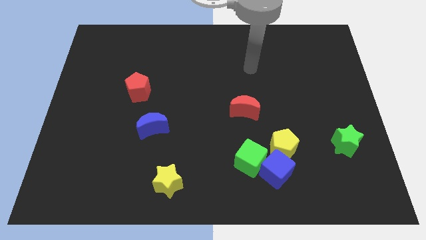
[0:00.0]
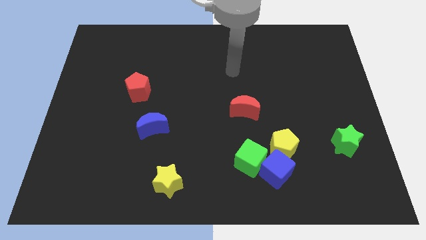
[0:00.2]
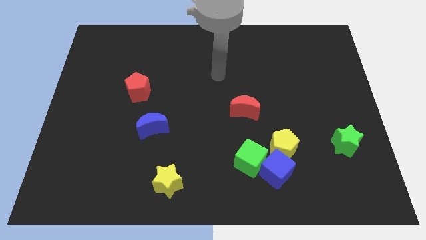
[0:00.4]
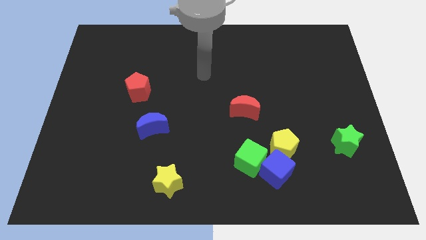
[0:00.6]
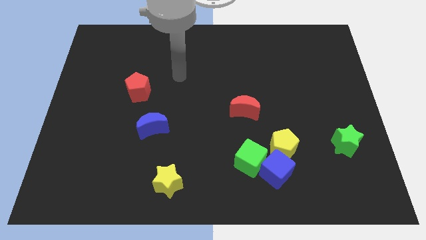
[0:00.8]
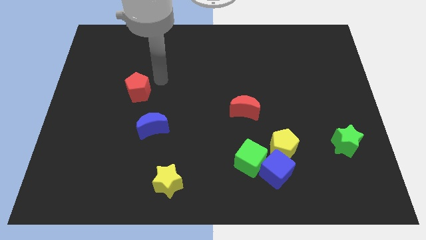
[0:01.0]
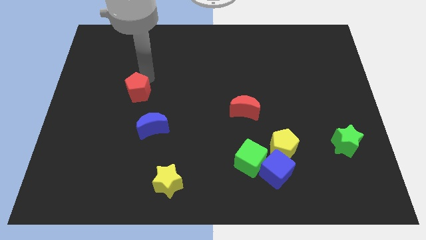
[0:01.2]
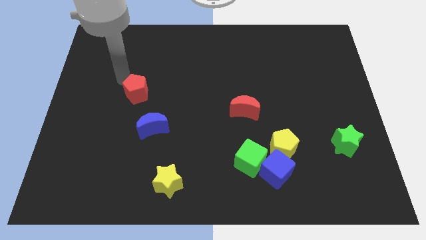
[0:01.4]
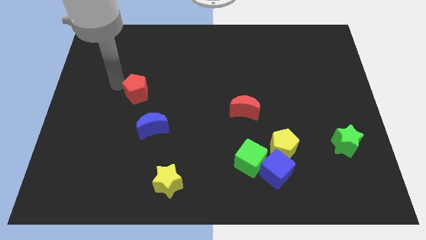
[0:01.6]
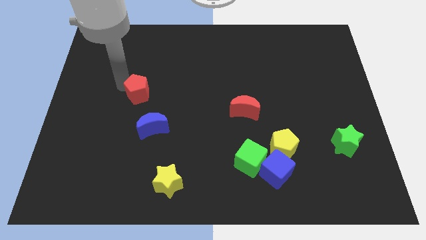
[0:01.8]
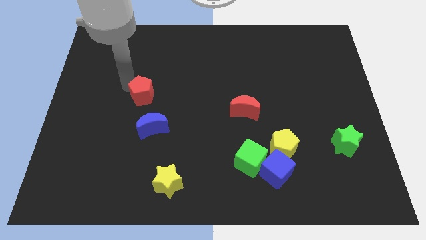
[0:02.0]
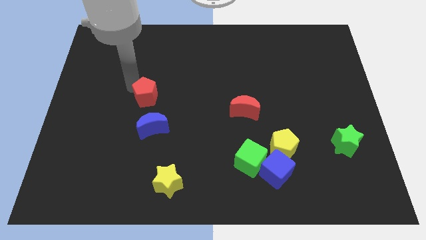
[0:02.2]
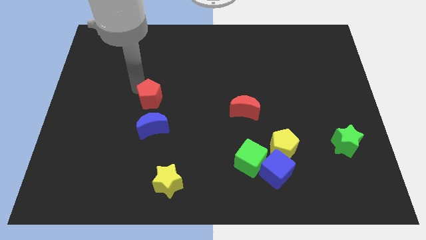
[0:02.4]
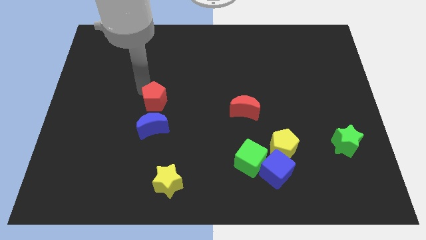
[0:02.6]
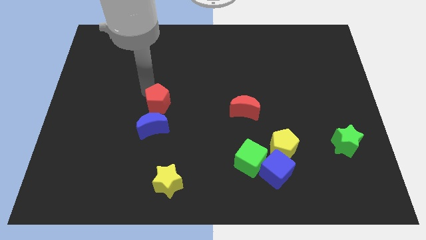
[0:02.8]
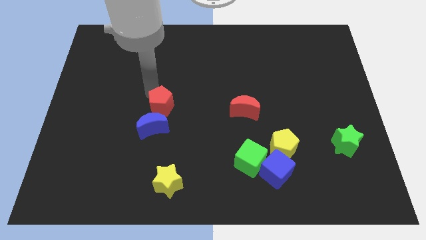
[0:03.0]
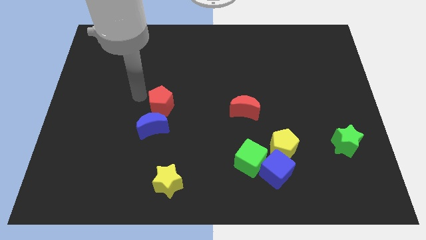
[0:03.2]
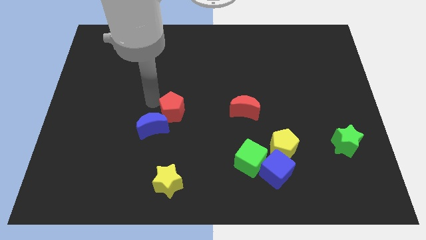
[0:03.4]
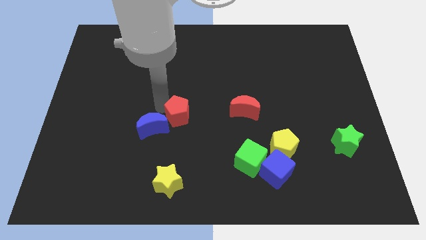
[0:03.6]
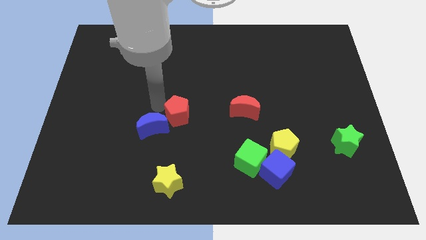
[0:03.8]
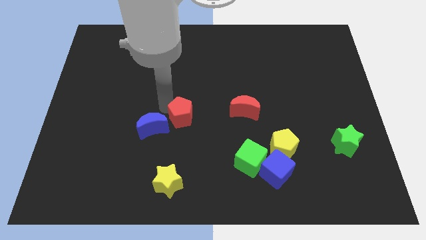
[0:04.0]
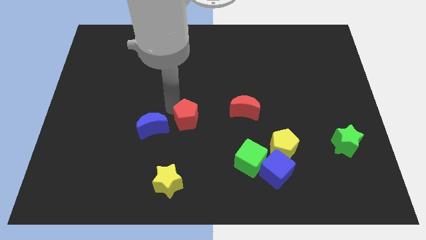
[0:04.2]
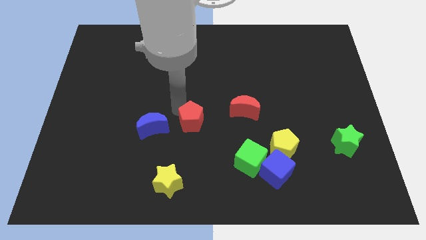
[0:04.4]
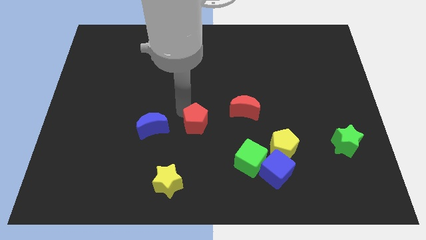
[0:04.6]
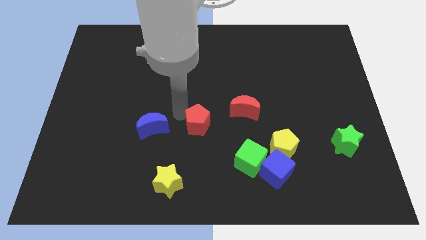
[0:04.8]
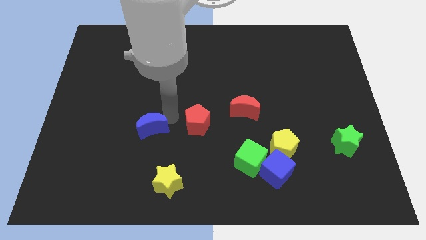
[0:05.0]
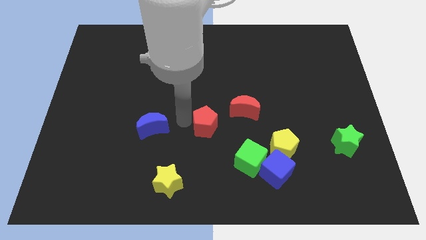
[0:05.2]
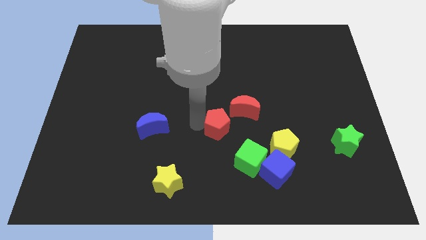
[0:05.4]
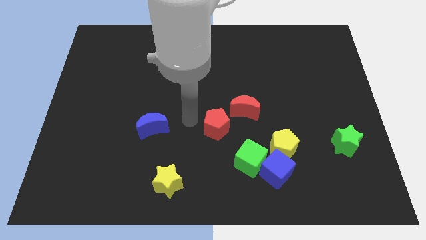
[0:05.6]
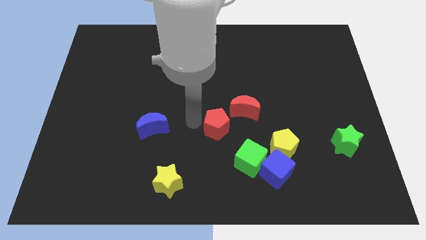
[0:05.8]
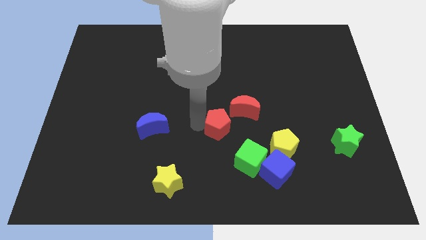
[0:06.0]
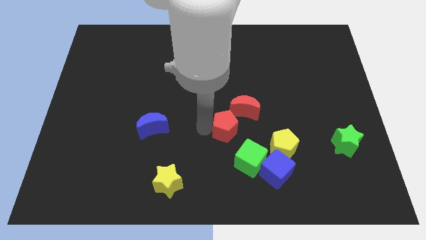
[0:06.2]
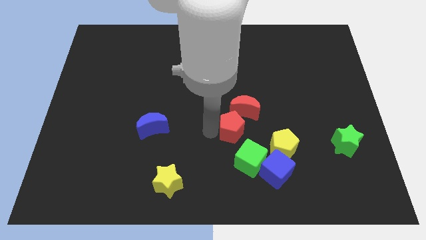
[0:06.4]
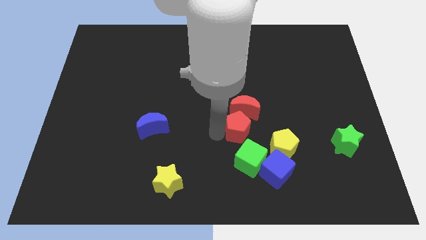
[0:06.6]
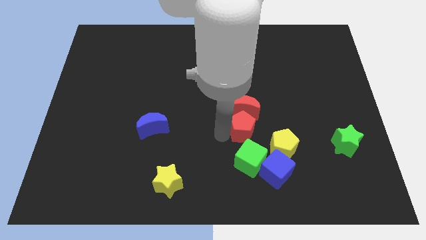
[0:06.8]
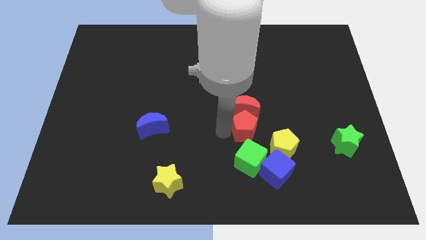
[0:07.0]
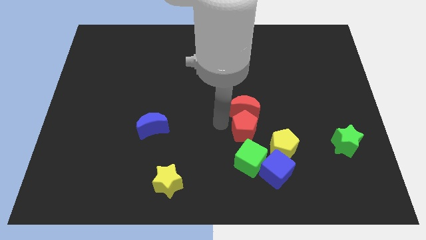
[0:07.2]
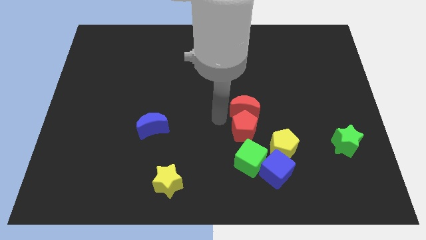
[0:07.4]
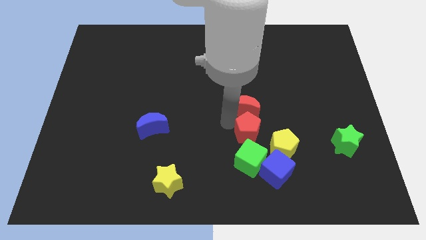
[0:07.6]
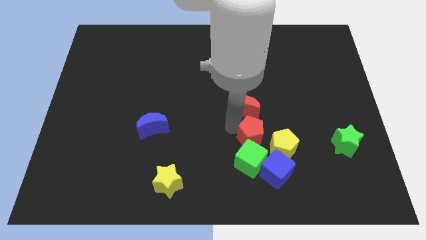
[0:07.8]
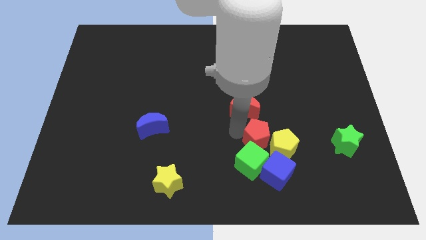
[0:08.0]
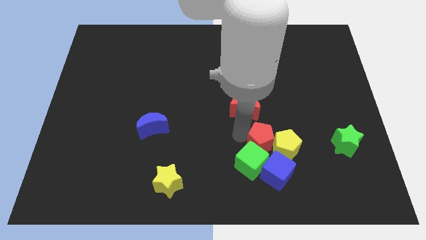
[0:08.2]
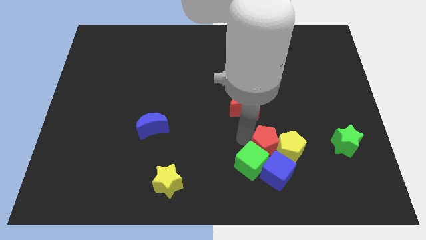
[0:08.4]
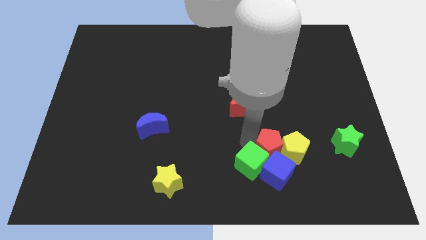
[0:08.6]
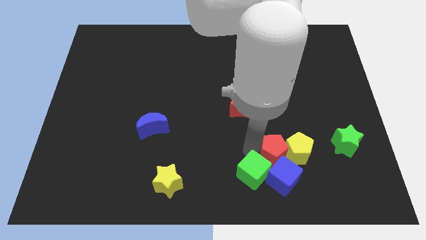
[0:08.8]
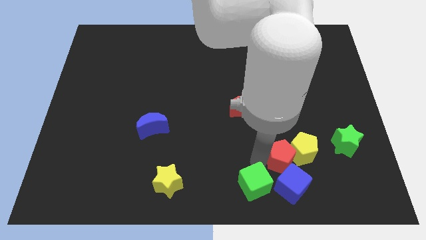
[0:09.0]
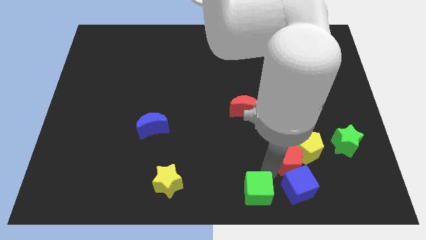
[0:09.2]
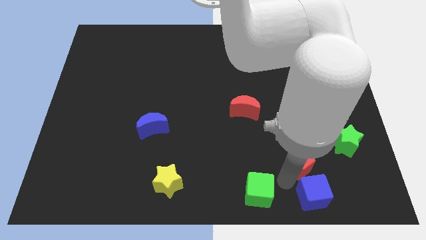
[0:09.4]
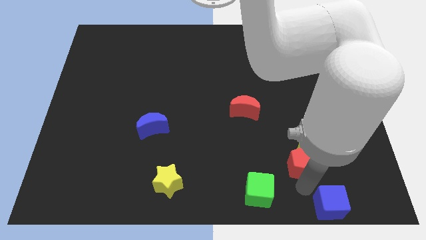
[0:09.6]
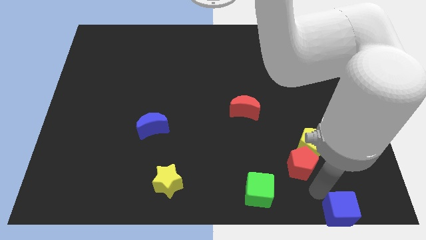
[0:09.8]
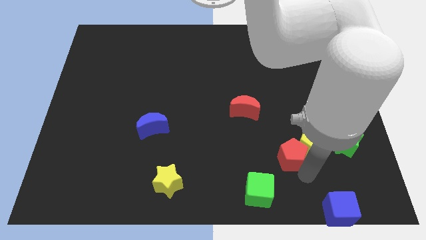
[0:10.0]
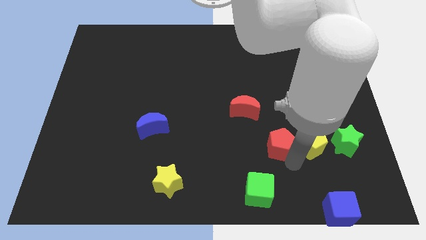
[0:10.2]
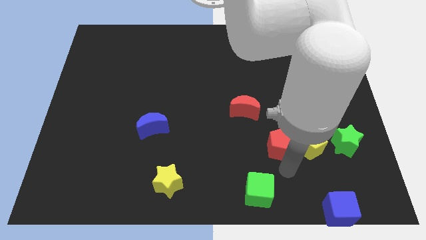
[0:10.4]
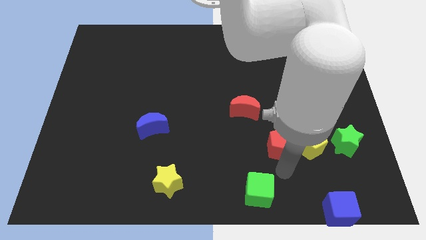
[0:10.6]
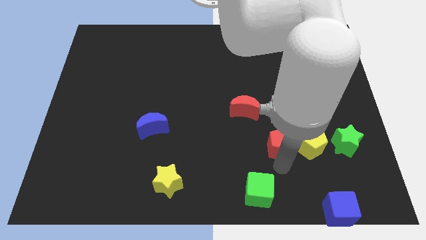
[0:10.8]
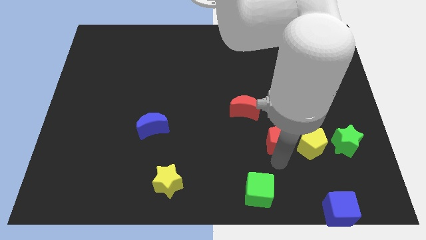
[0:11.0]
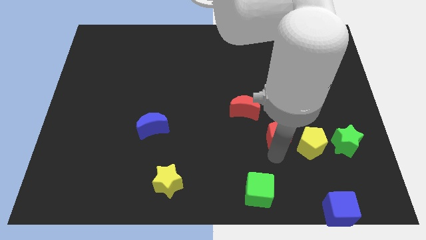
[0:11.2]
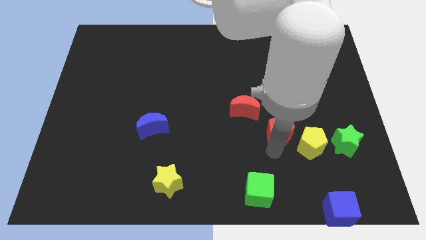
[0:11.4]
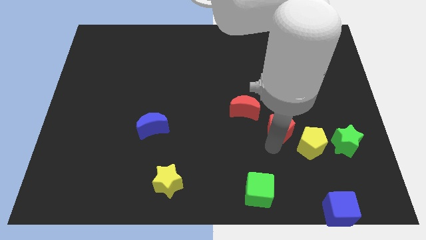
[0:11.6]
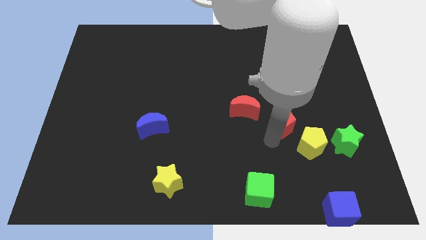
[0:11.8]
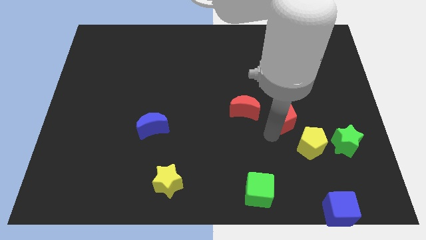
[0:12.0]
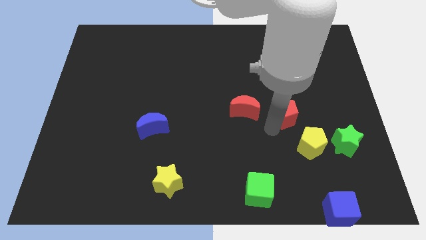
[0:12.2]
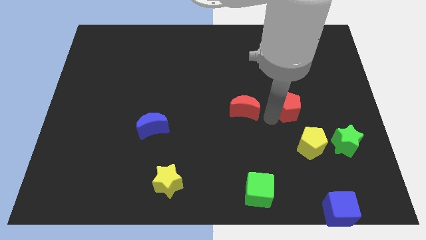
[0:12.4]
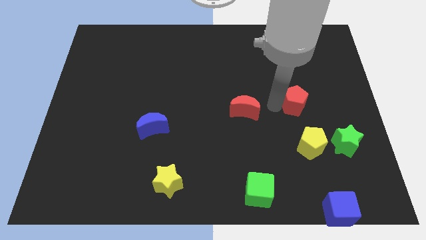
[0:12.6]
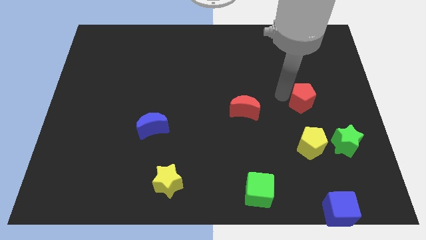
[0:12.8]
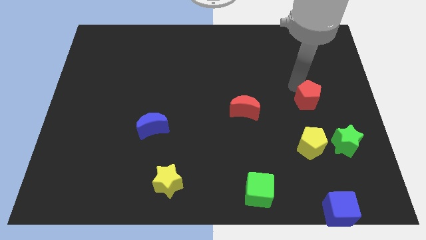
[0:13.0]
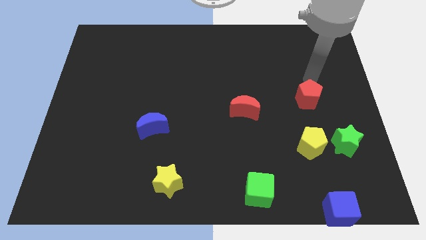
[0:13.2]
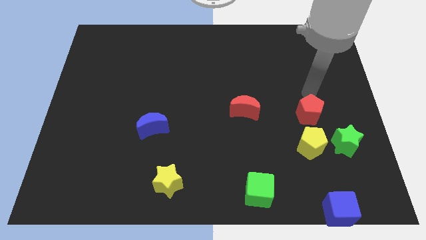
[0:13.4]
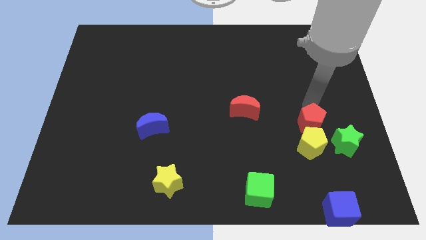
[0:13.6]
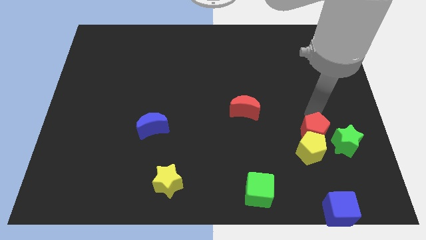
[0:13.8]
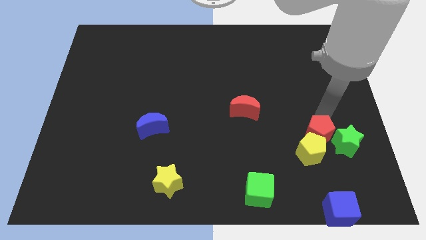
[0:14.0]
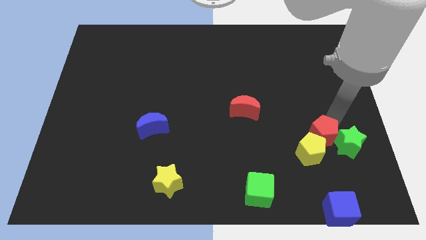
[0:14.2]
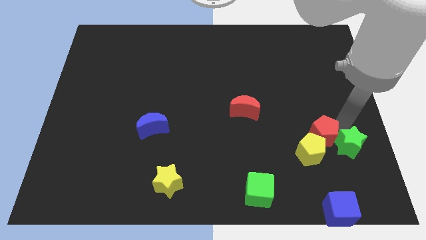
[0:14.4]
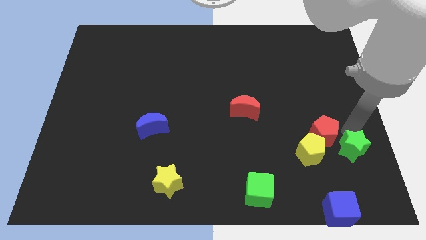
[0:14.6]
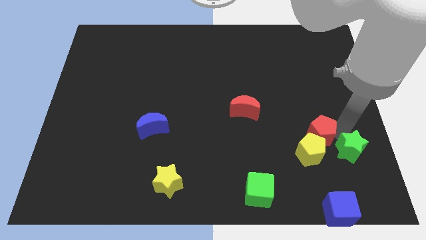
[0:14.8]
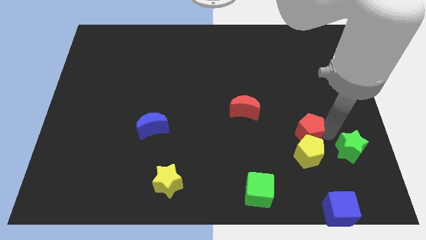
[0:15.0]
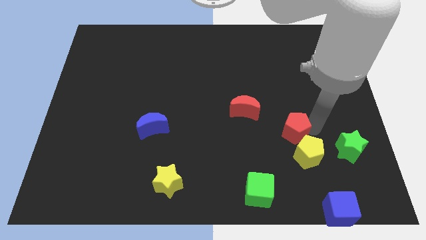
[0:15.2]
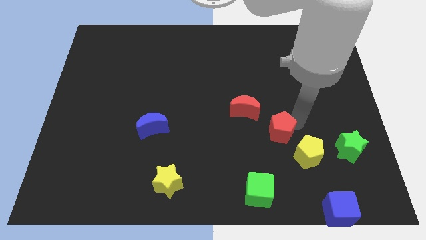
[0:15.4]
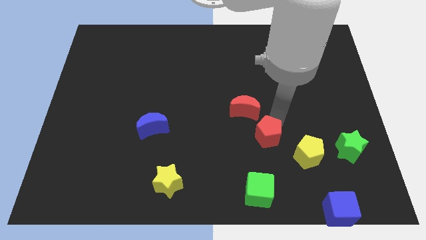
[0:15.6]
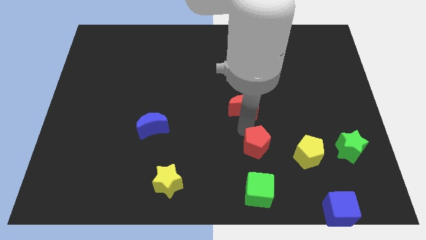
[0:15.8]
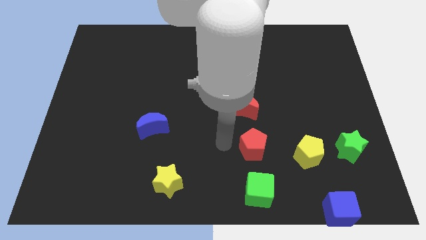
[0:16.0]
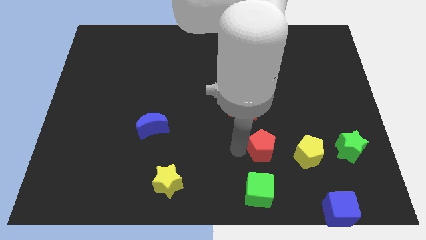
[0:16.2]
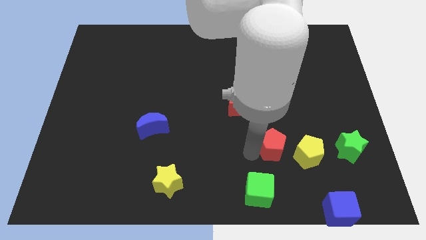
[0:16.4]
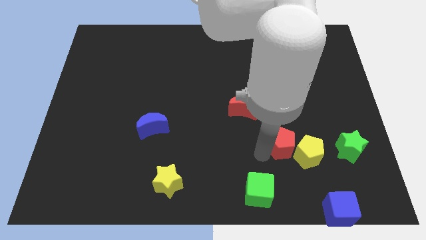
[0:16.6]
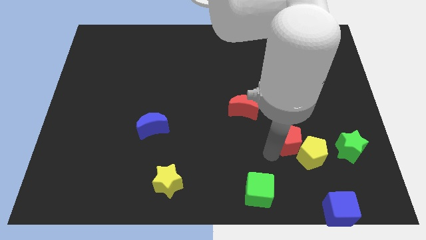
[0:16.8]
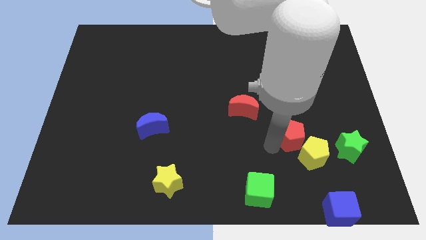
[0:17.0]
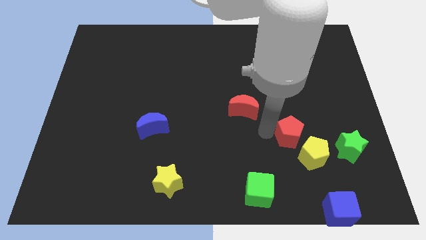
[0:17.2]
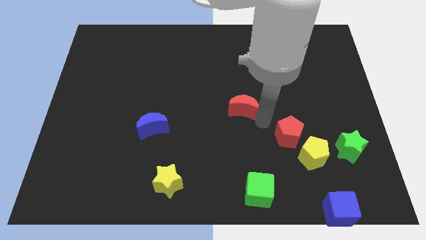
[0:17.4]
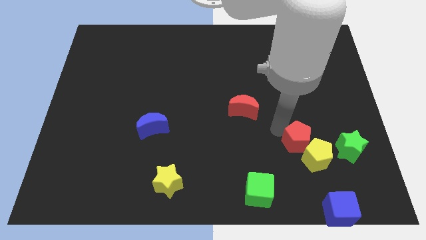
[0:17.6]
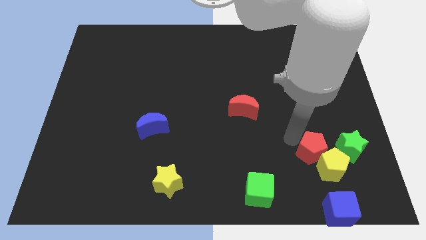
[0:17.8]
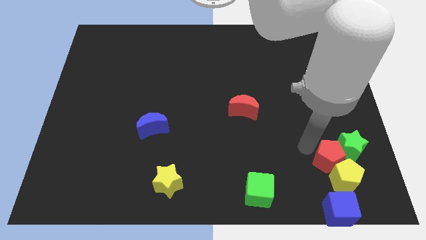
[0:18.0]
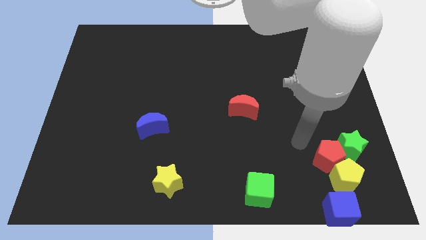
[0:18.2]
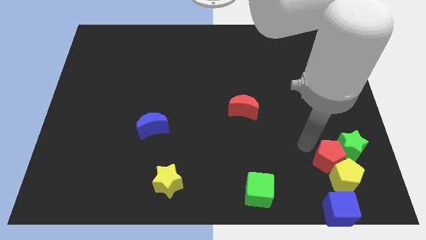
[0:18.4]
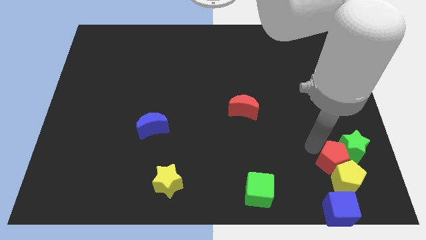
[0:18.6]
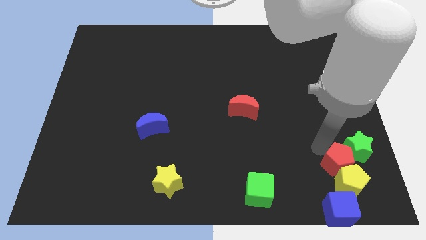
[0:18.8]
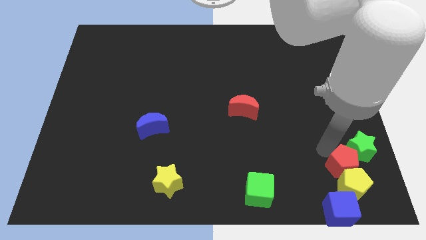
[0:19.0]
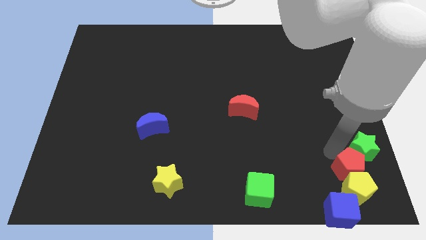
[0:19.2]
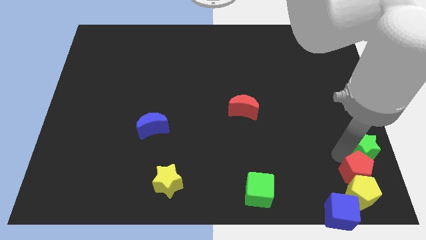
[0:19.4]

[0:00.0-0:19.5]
slide the red pentagon to the bottom right
